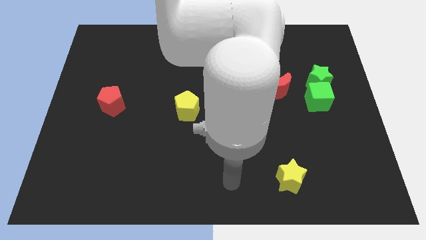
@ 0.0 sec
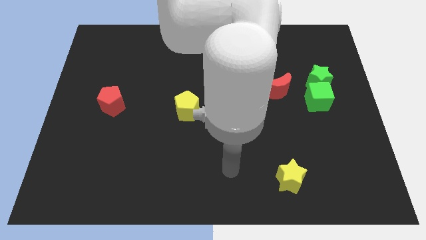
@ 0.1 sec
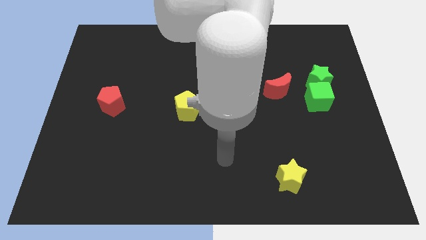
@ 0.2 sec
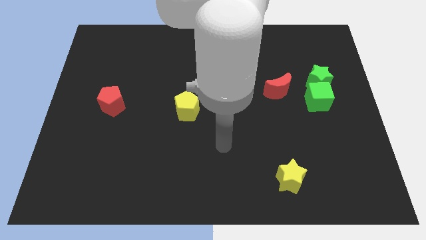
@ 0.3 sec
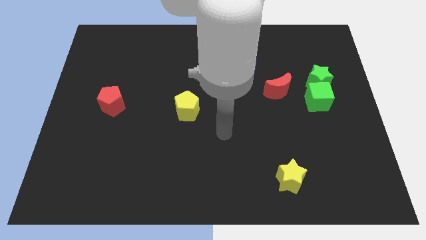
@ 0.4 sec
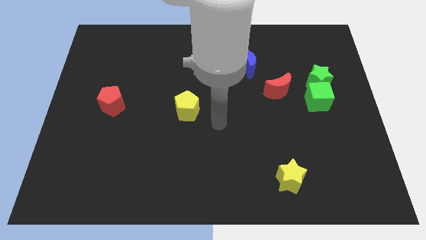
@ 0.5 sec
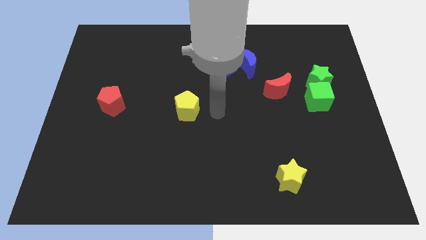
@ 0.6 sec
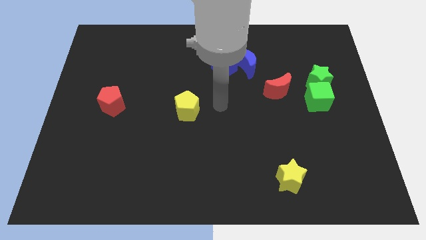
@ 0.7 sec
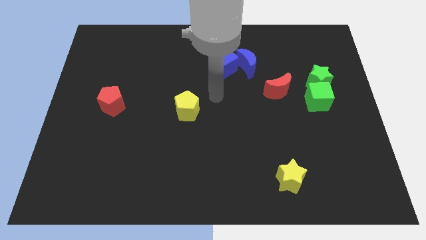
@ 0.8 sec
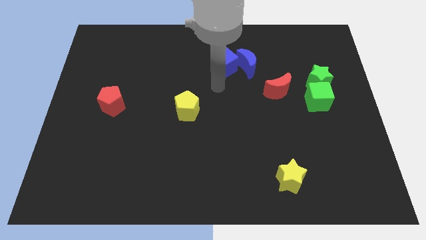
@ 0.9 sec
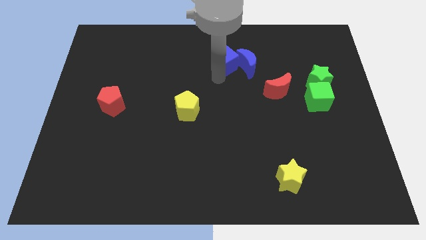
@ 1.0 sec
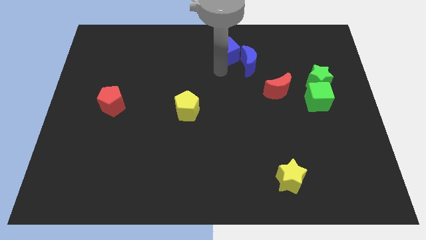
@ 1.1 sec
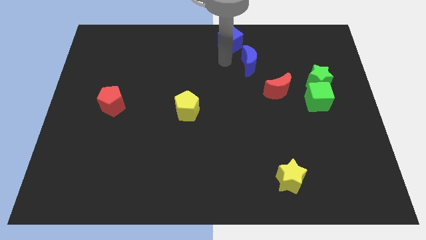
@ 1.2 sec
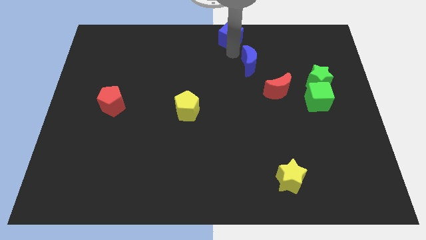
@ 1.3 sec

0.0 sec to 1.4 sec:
pull the blue moon apart from the blue cube

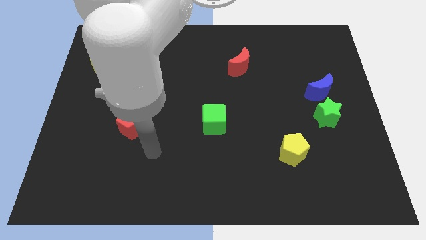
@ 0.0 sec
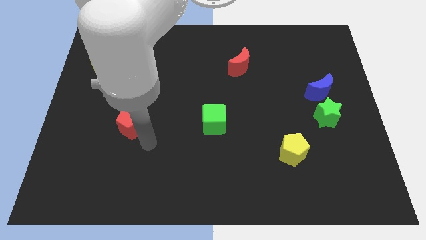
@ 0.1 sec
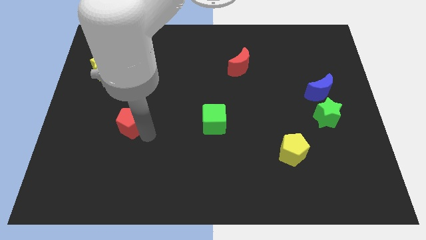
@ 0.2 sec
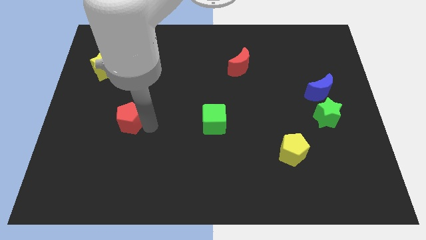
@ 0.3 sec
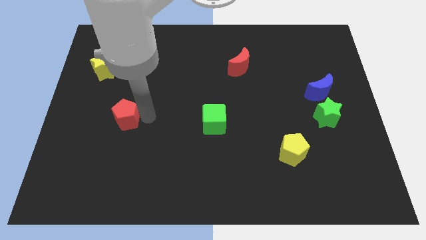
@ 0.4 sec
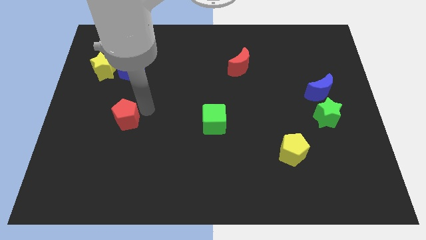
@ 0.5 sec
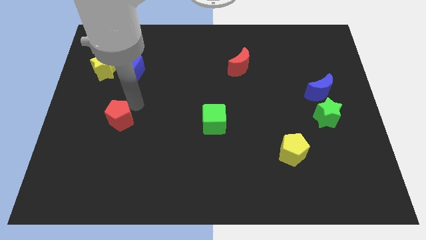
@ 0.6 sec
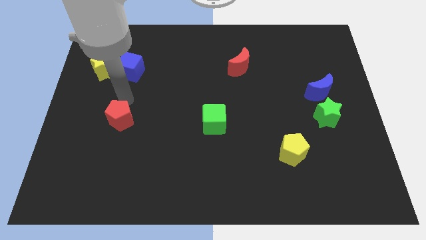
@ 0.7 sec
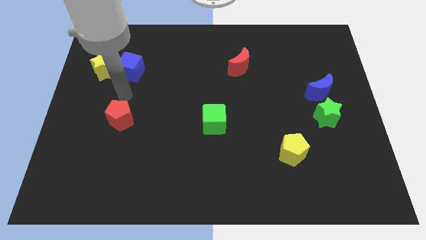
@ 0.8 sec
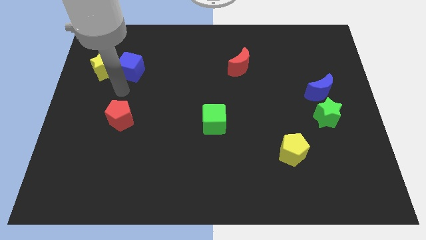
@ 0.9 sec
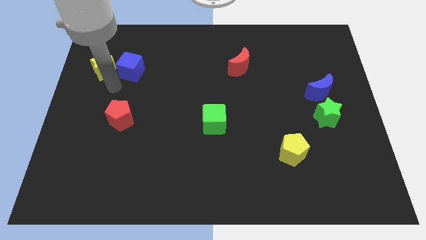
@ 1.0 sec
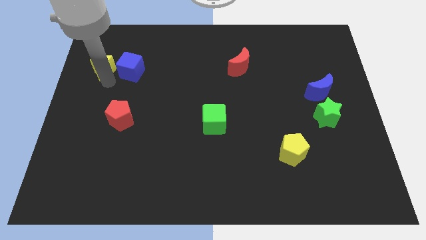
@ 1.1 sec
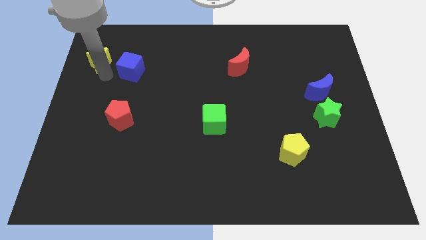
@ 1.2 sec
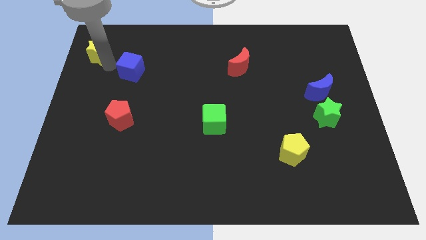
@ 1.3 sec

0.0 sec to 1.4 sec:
pull the blue cube apart from the yellow star

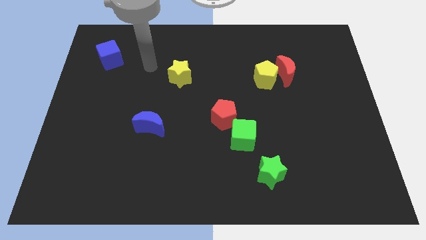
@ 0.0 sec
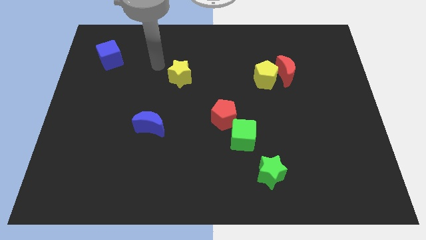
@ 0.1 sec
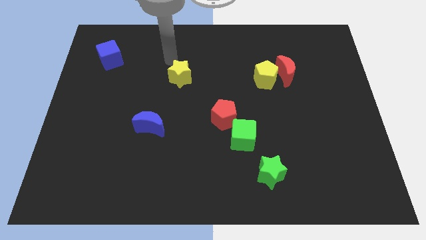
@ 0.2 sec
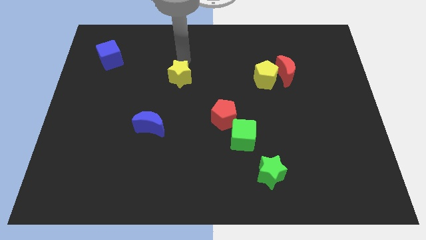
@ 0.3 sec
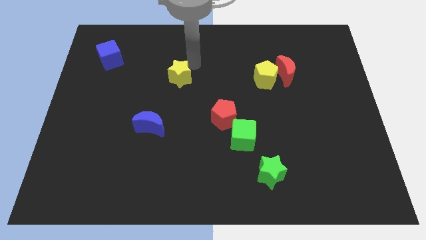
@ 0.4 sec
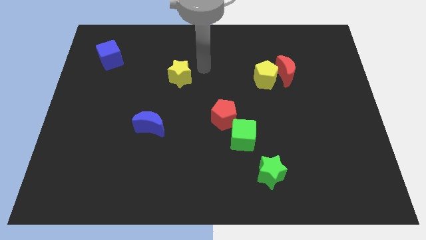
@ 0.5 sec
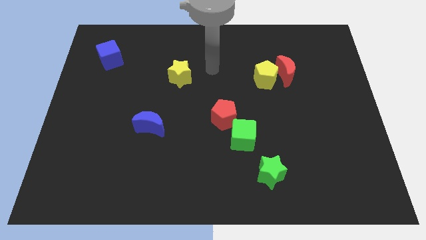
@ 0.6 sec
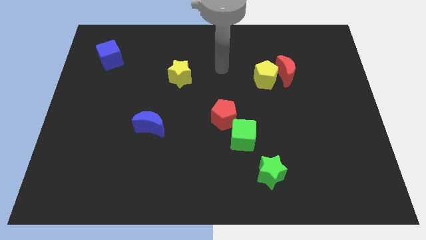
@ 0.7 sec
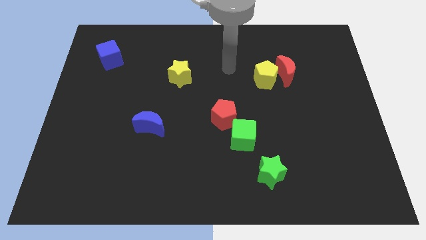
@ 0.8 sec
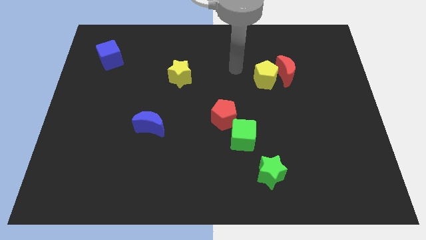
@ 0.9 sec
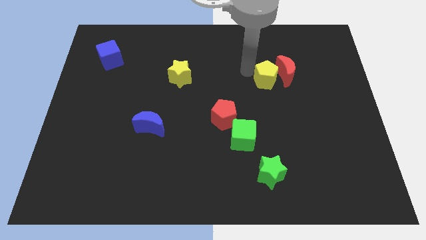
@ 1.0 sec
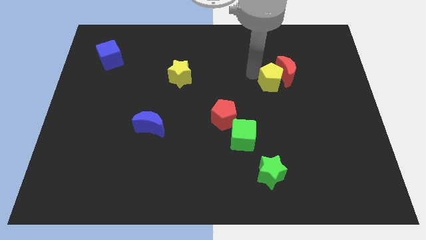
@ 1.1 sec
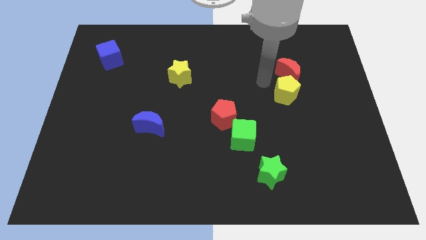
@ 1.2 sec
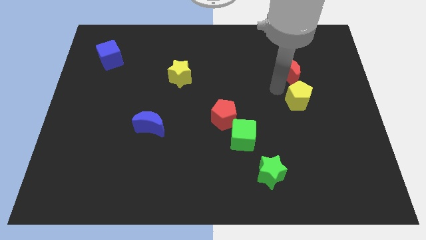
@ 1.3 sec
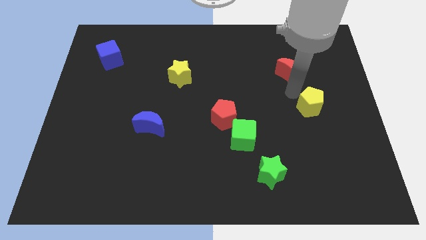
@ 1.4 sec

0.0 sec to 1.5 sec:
separate the red moon from the yellow pentagon

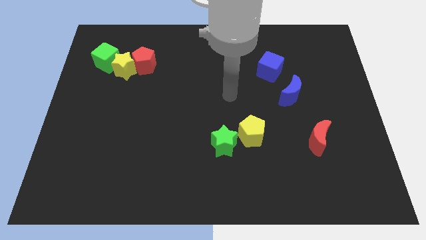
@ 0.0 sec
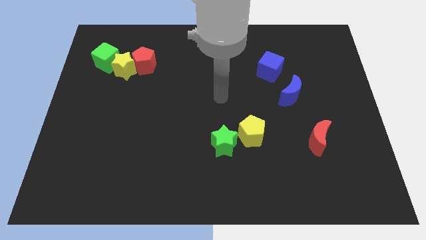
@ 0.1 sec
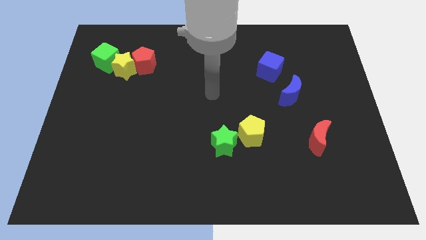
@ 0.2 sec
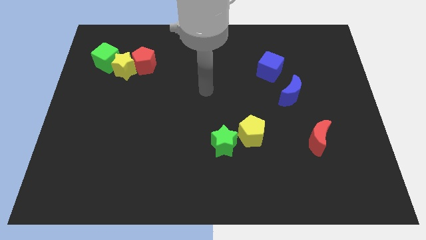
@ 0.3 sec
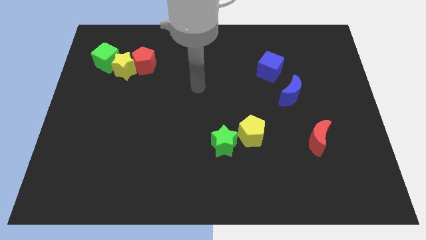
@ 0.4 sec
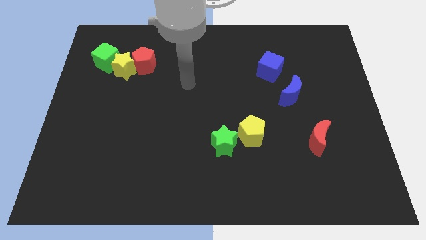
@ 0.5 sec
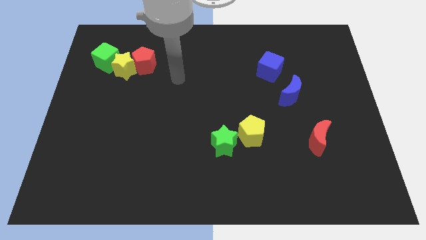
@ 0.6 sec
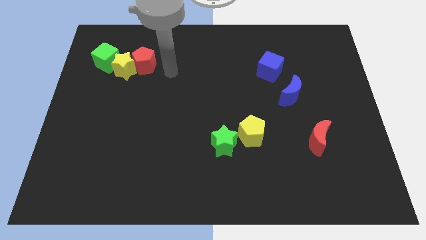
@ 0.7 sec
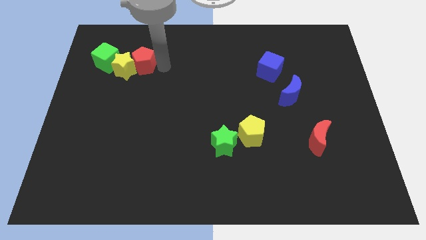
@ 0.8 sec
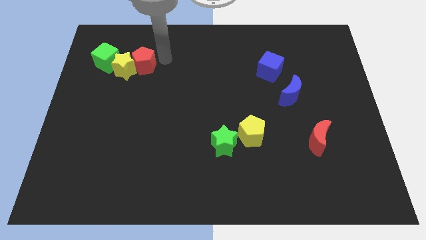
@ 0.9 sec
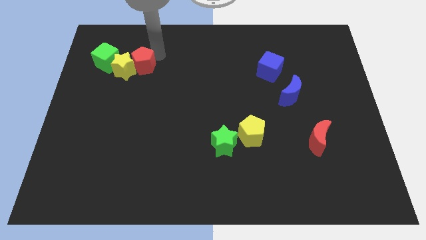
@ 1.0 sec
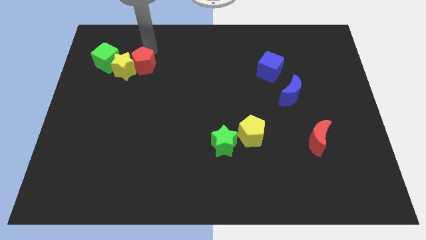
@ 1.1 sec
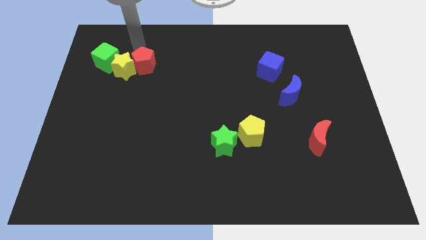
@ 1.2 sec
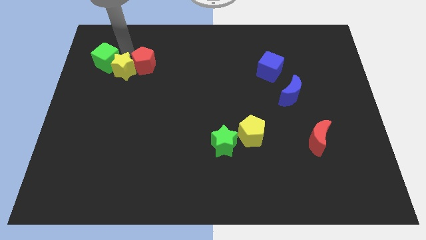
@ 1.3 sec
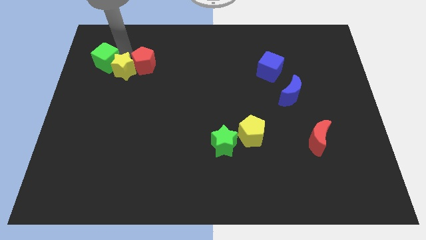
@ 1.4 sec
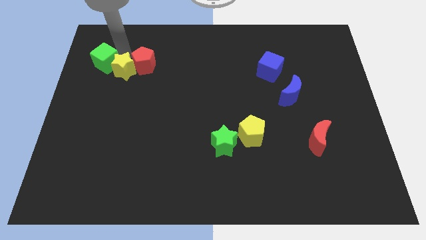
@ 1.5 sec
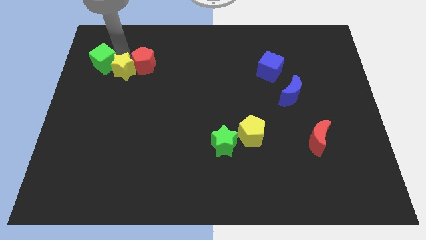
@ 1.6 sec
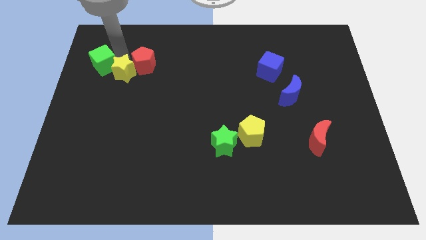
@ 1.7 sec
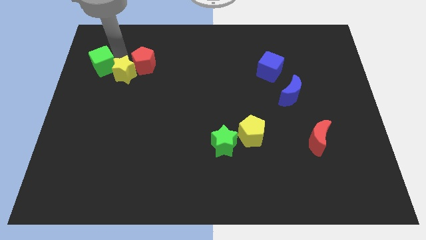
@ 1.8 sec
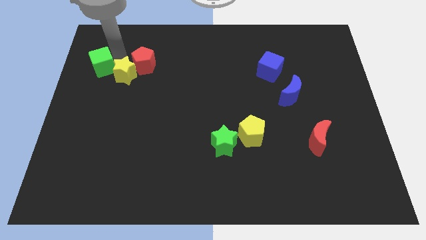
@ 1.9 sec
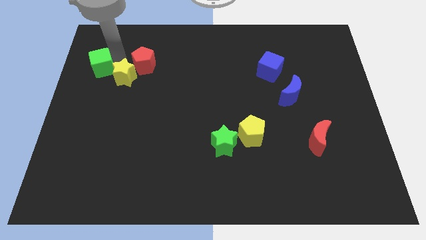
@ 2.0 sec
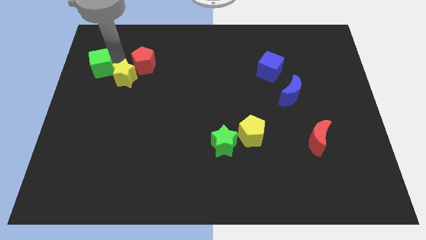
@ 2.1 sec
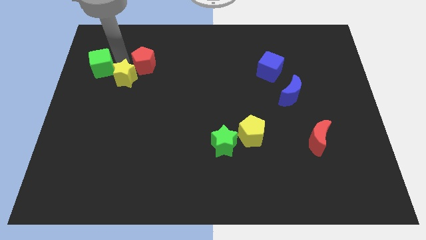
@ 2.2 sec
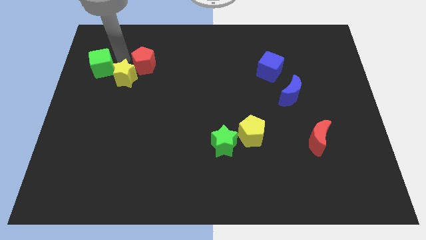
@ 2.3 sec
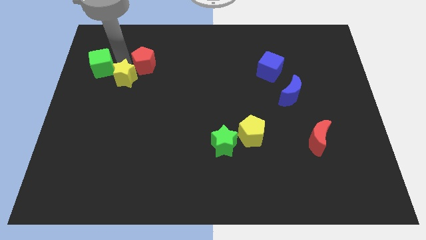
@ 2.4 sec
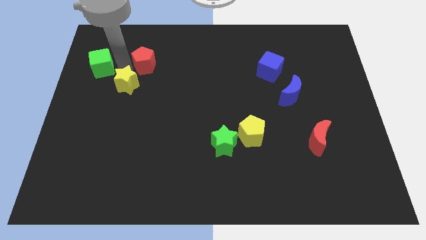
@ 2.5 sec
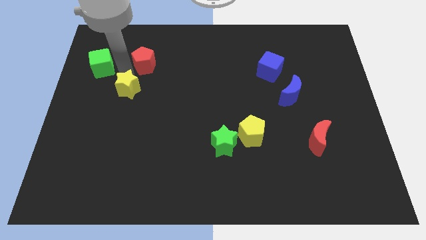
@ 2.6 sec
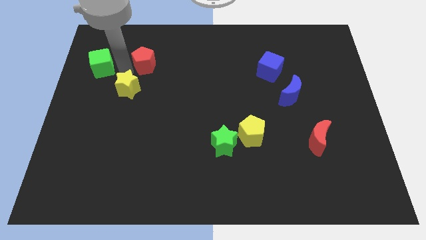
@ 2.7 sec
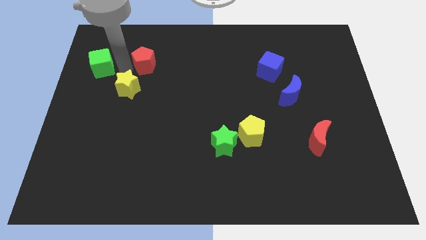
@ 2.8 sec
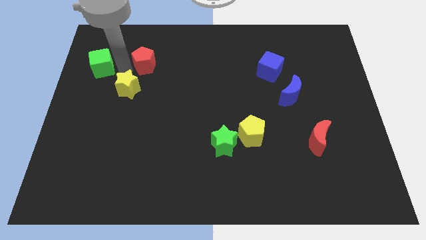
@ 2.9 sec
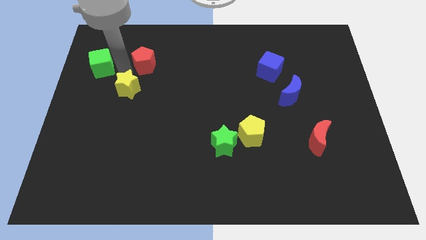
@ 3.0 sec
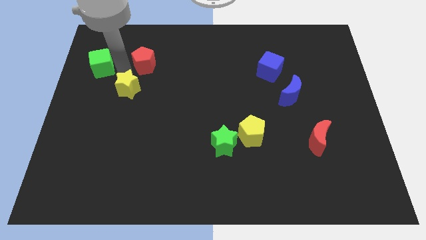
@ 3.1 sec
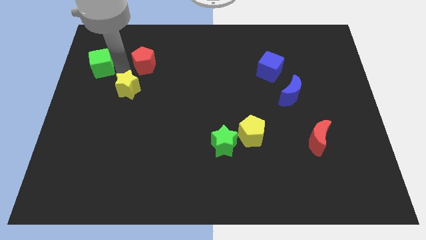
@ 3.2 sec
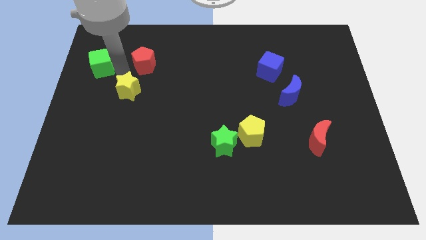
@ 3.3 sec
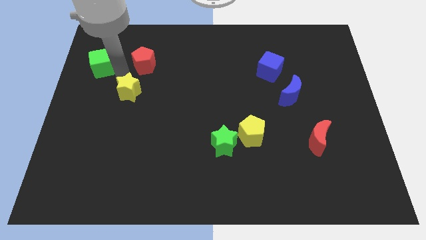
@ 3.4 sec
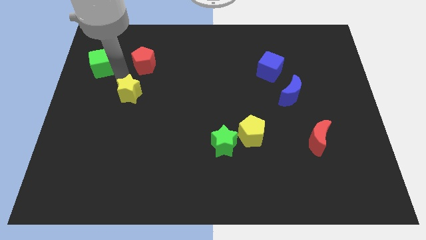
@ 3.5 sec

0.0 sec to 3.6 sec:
separate the yellow star from the red pentagon and green cube

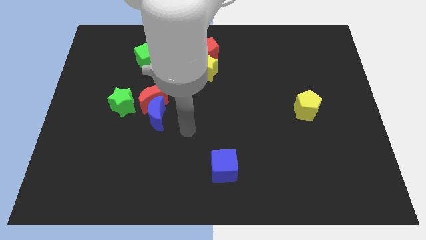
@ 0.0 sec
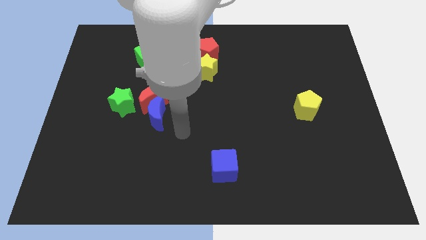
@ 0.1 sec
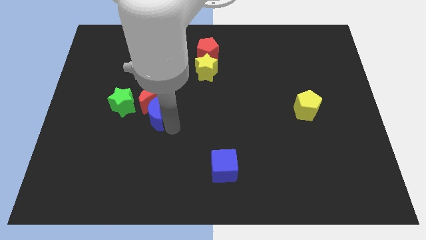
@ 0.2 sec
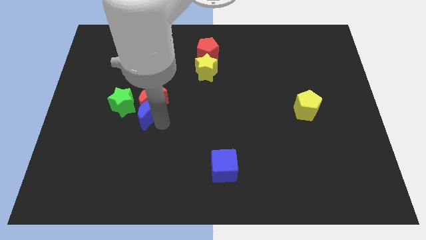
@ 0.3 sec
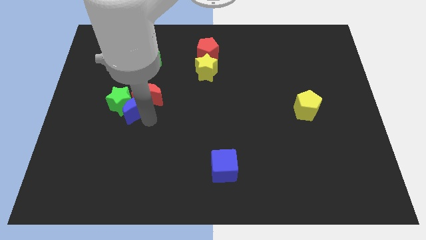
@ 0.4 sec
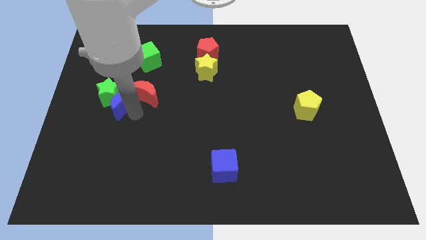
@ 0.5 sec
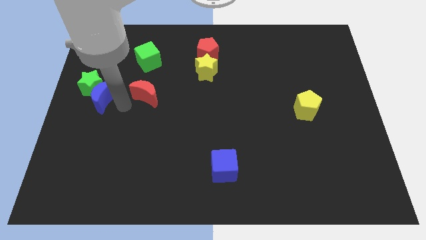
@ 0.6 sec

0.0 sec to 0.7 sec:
move the red moon away from the blue moon and green star

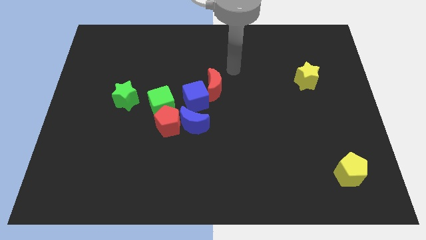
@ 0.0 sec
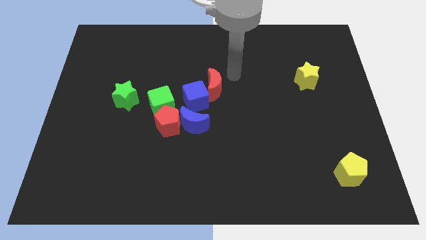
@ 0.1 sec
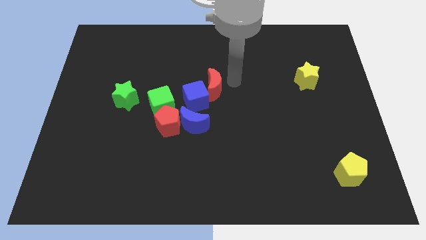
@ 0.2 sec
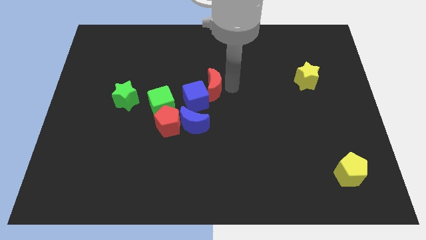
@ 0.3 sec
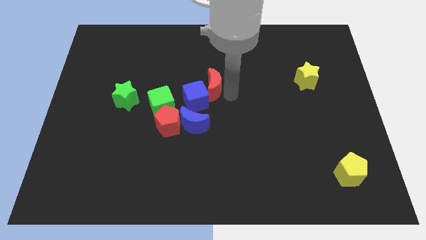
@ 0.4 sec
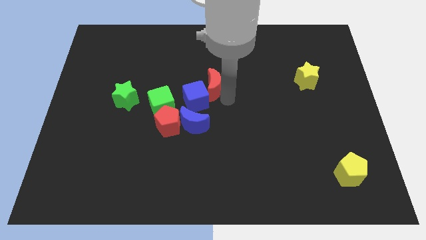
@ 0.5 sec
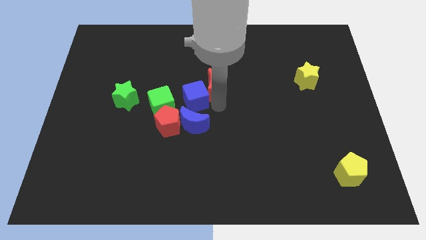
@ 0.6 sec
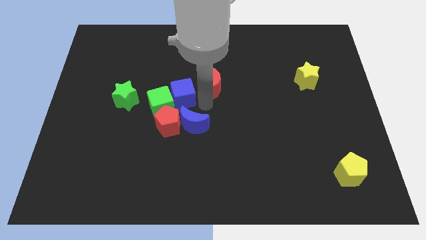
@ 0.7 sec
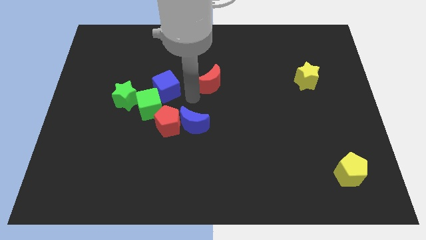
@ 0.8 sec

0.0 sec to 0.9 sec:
pull the red moon apart from the blue cube
